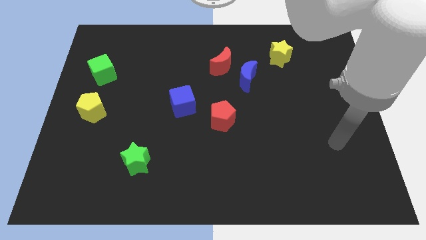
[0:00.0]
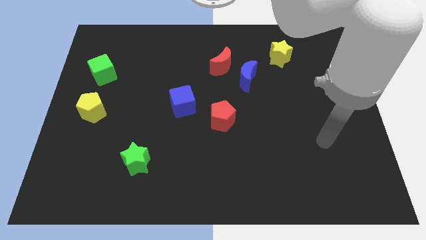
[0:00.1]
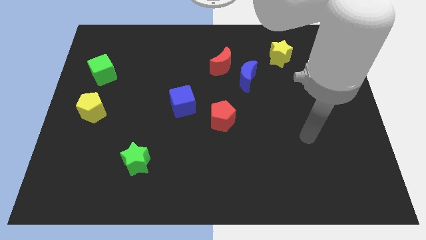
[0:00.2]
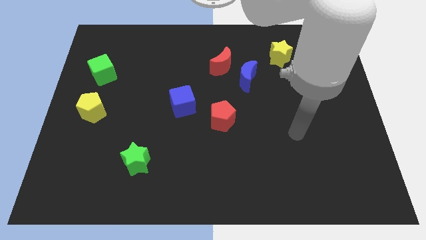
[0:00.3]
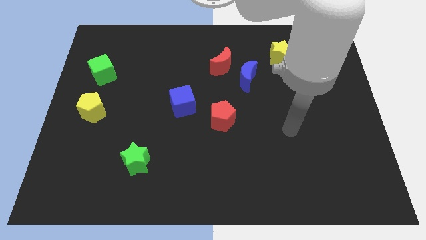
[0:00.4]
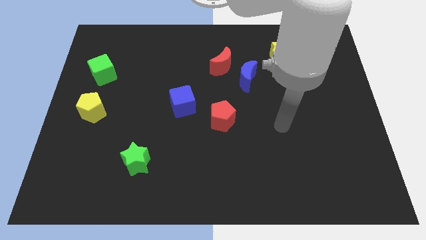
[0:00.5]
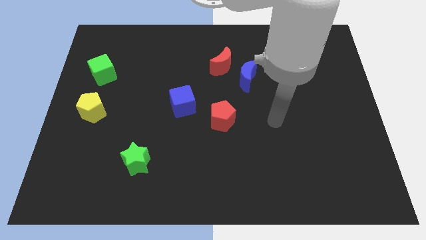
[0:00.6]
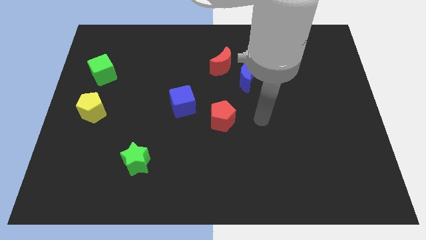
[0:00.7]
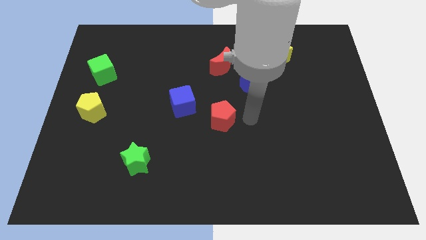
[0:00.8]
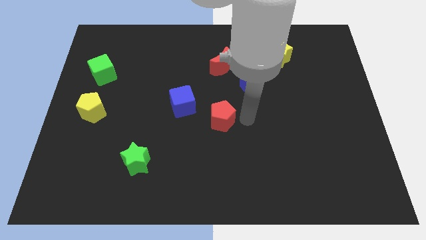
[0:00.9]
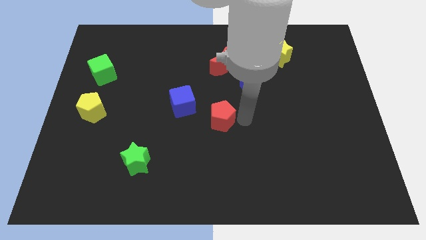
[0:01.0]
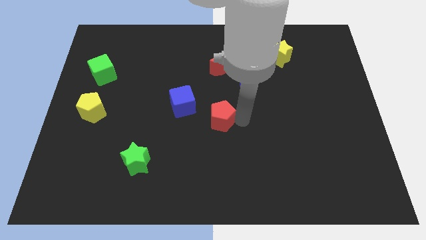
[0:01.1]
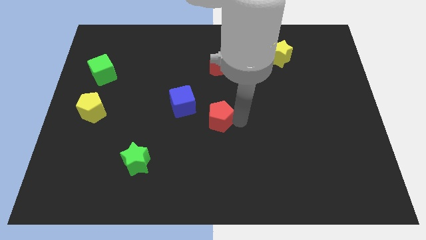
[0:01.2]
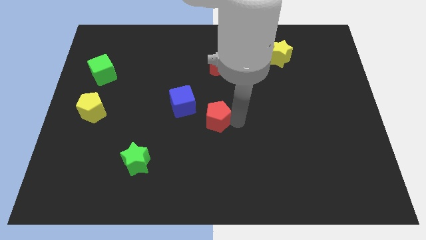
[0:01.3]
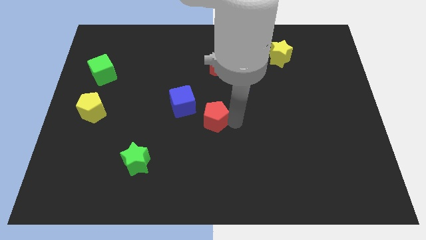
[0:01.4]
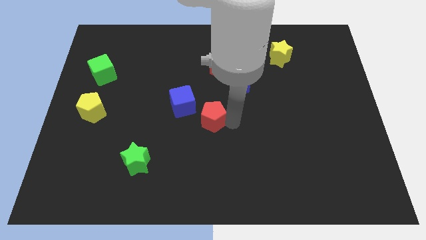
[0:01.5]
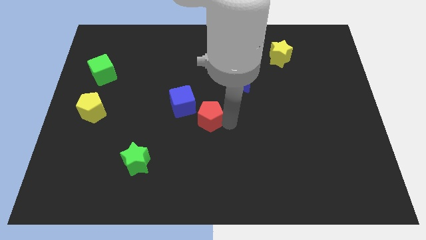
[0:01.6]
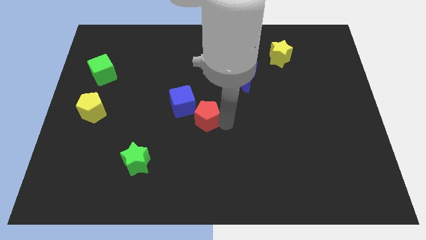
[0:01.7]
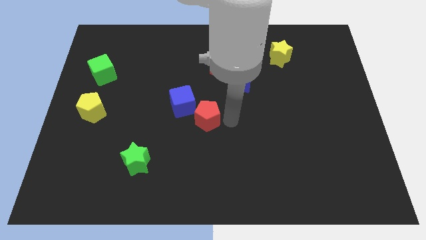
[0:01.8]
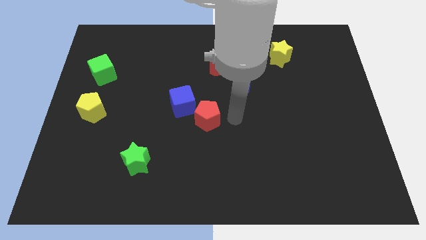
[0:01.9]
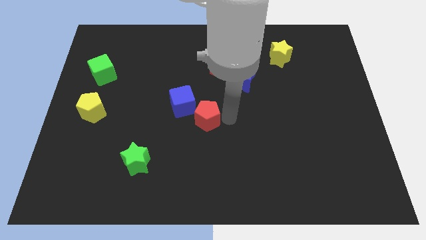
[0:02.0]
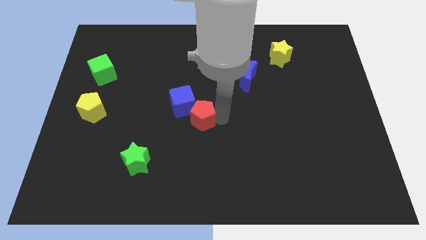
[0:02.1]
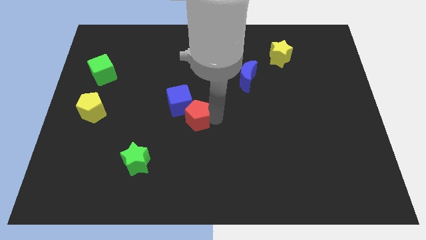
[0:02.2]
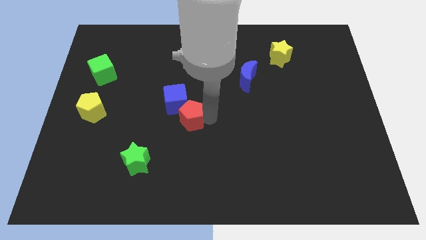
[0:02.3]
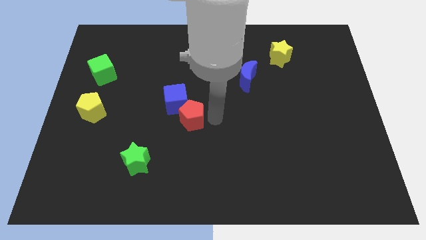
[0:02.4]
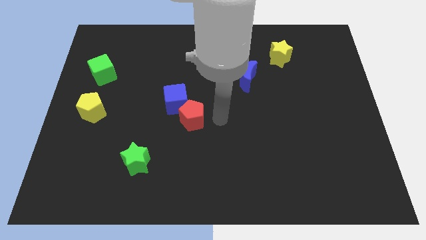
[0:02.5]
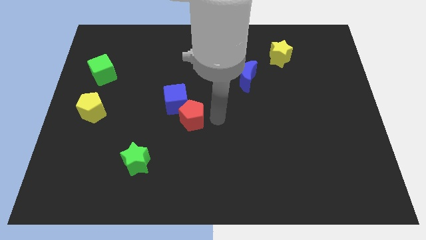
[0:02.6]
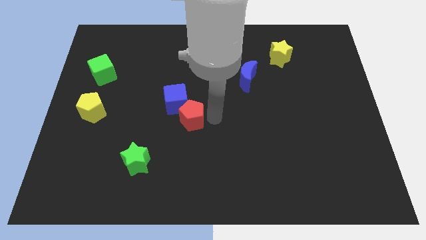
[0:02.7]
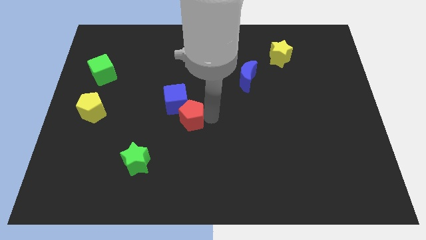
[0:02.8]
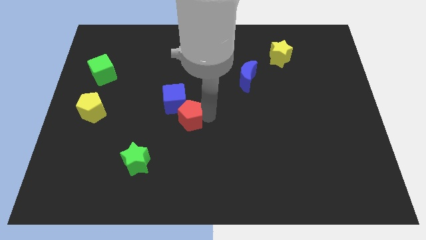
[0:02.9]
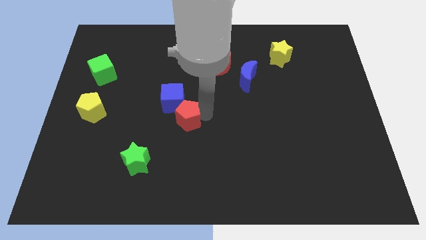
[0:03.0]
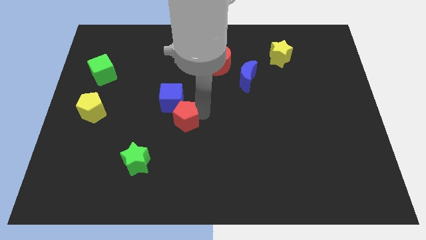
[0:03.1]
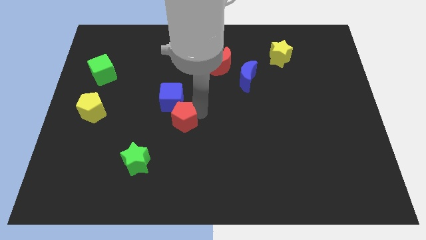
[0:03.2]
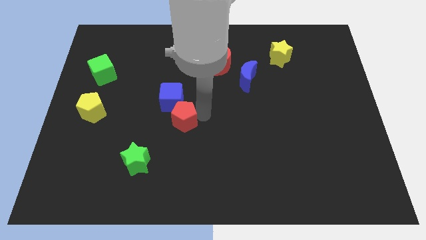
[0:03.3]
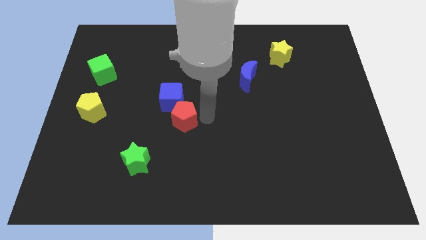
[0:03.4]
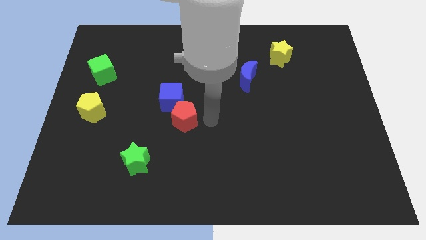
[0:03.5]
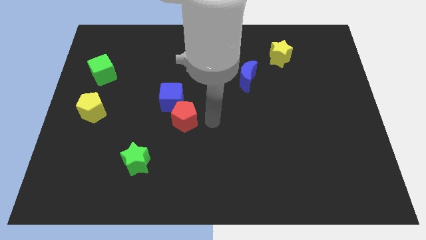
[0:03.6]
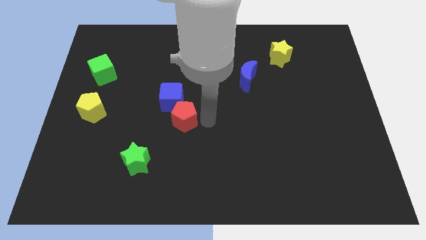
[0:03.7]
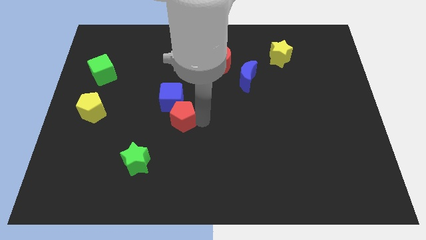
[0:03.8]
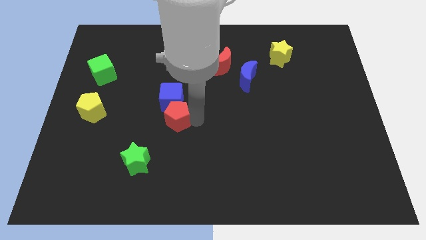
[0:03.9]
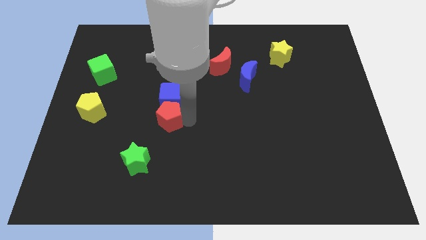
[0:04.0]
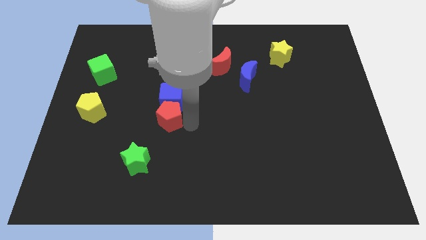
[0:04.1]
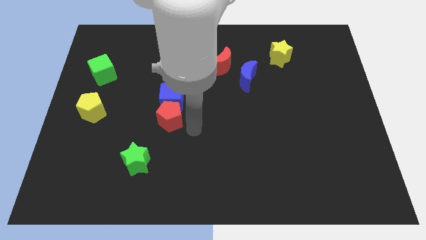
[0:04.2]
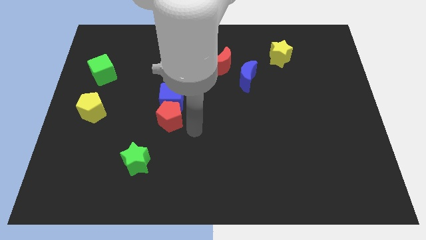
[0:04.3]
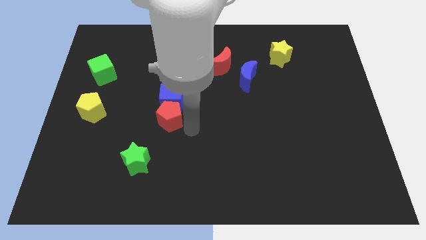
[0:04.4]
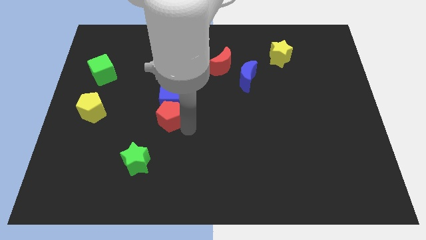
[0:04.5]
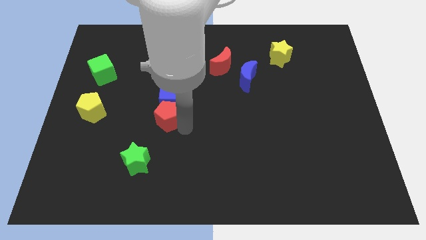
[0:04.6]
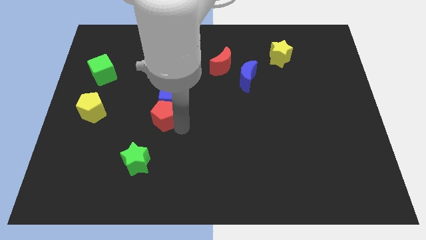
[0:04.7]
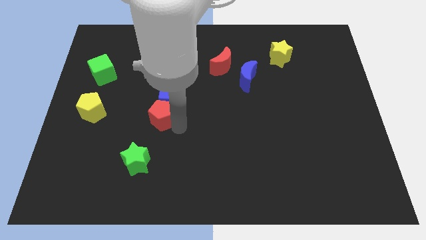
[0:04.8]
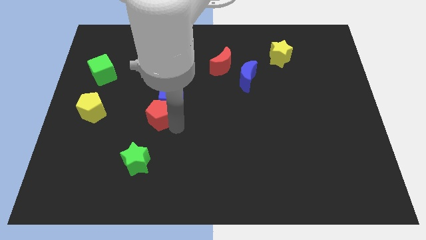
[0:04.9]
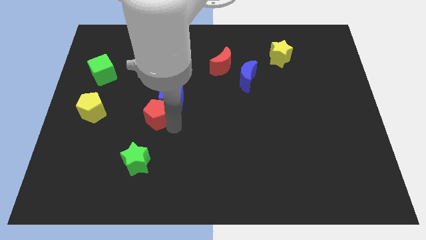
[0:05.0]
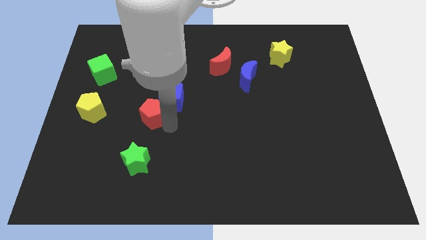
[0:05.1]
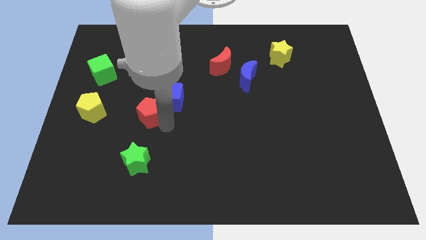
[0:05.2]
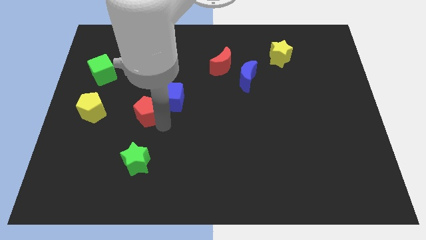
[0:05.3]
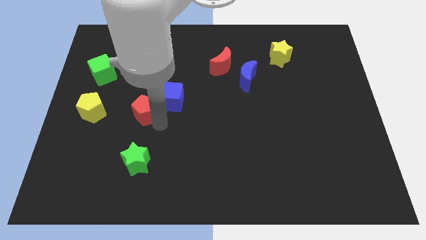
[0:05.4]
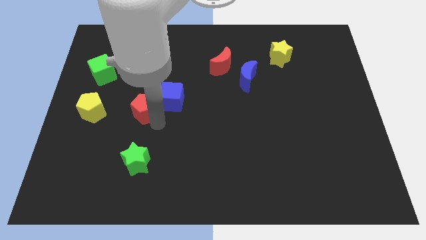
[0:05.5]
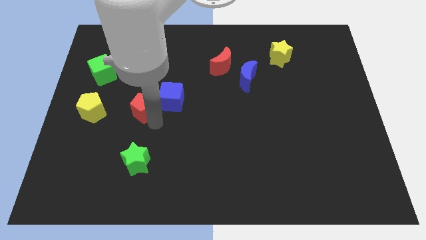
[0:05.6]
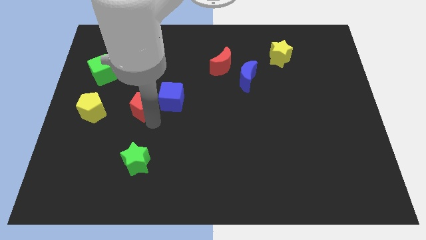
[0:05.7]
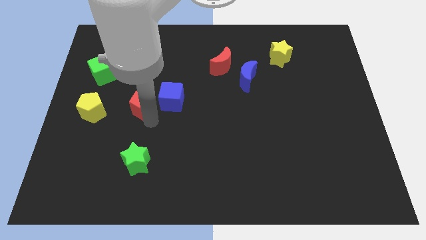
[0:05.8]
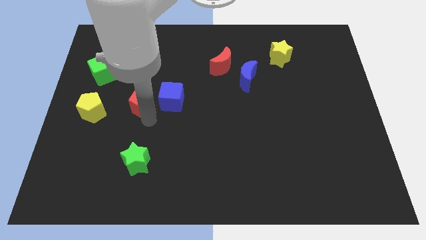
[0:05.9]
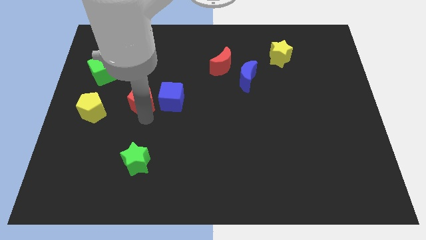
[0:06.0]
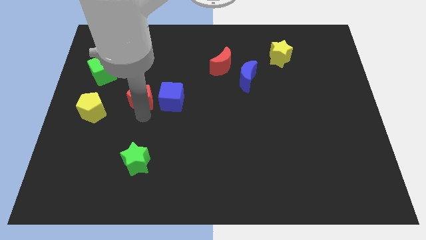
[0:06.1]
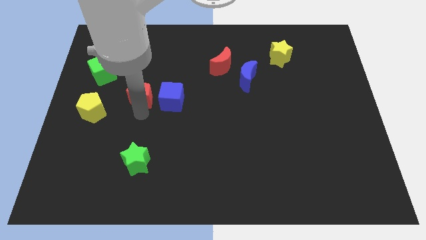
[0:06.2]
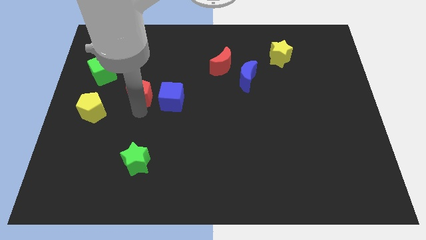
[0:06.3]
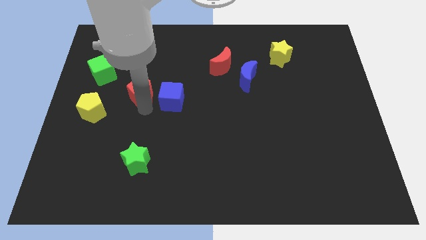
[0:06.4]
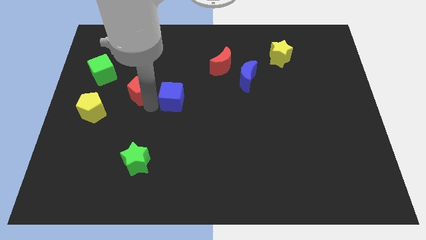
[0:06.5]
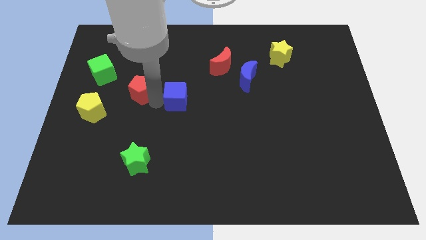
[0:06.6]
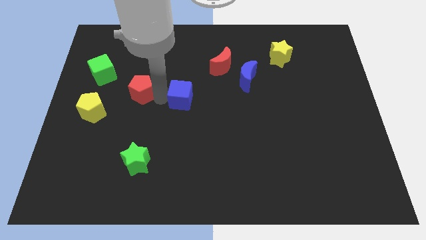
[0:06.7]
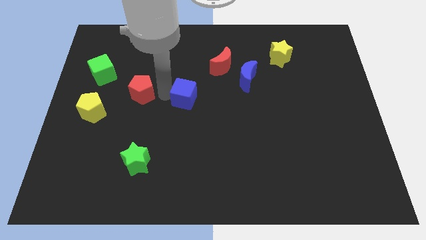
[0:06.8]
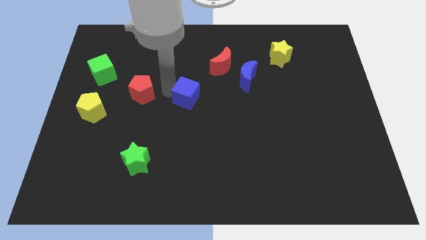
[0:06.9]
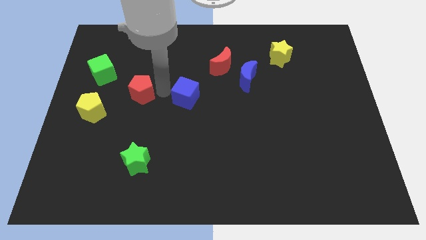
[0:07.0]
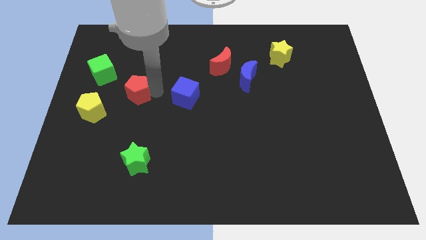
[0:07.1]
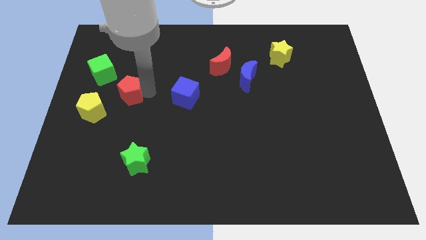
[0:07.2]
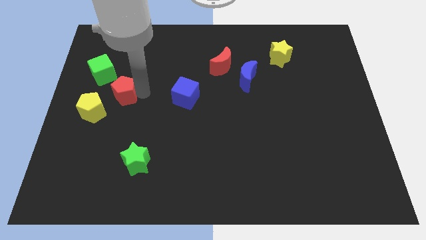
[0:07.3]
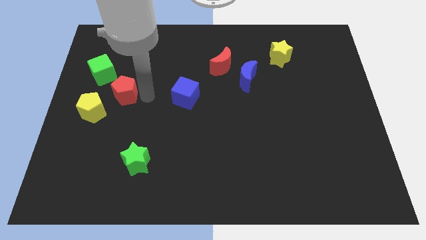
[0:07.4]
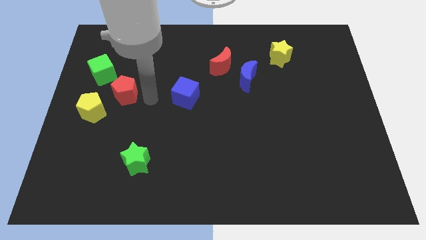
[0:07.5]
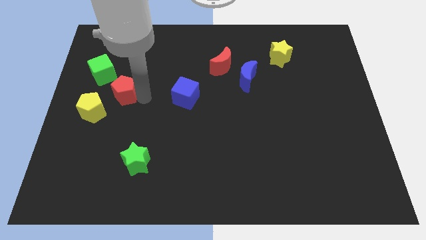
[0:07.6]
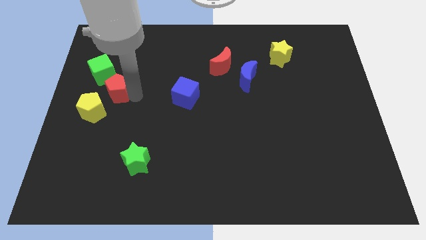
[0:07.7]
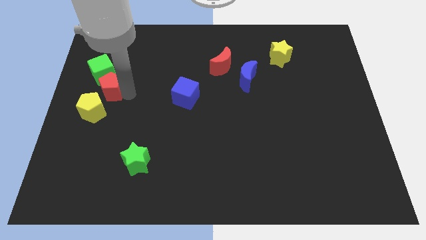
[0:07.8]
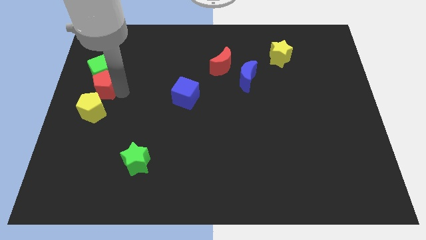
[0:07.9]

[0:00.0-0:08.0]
push the red pentagon to the center left
